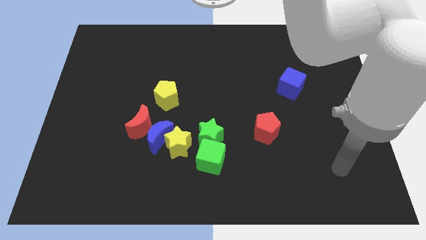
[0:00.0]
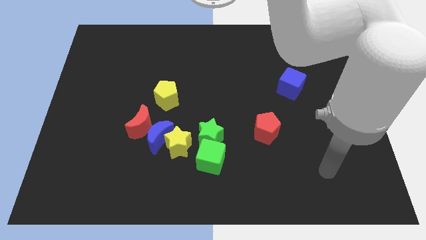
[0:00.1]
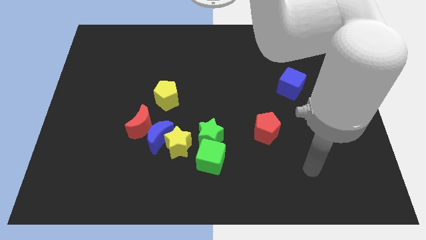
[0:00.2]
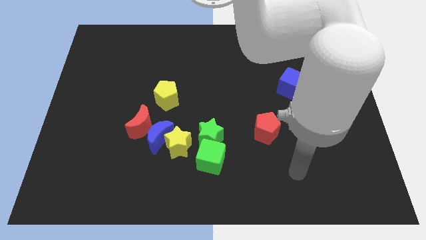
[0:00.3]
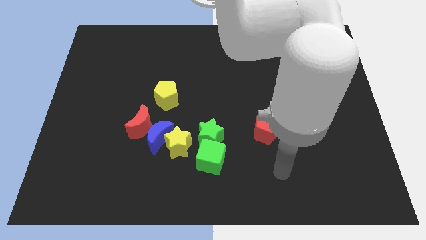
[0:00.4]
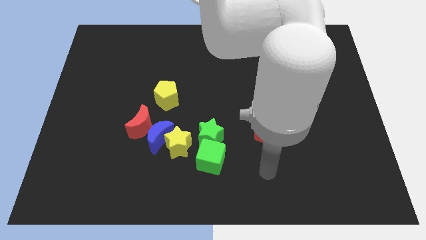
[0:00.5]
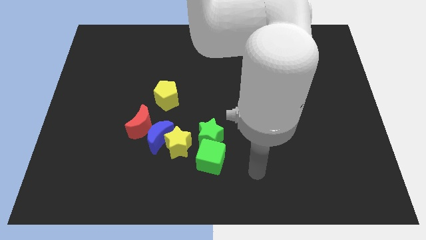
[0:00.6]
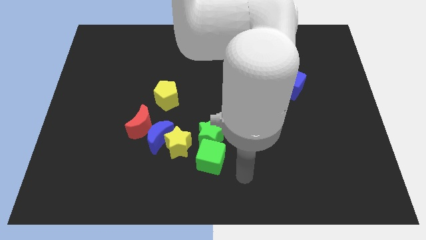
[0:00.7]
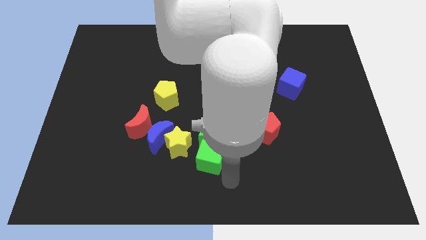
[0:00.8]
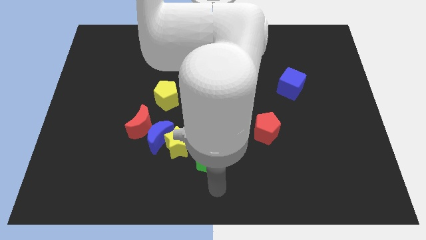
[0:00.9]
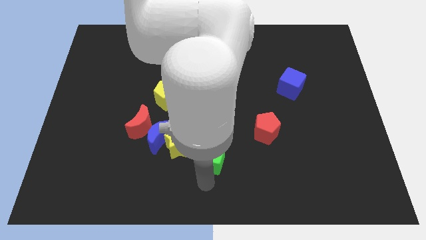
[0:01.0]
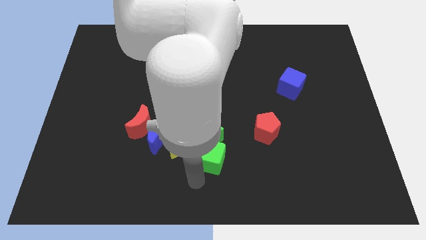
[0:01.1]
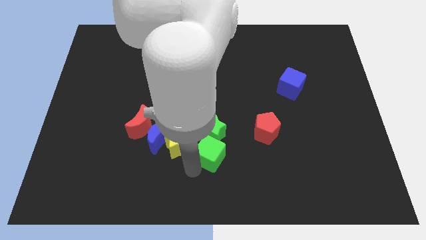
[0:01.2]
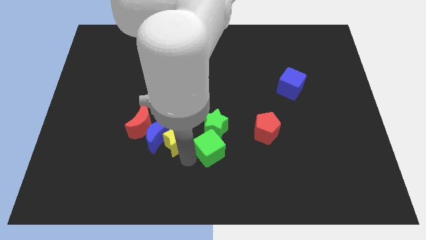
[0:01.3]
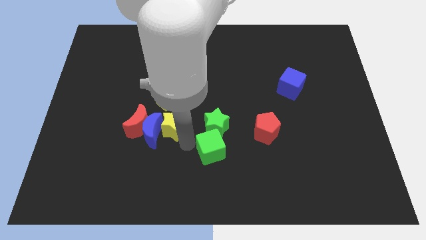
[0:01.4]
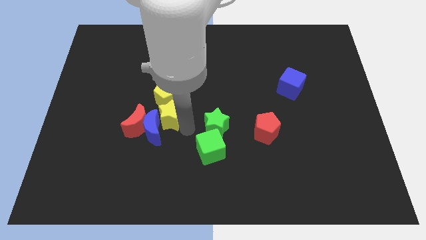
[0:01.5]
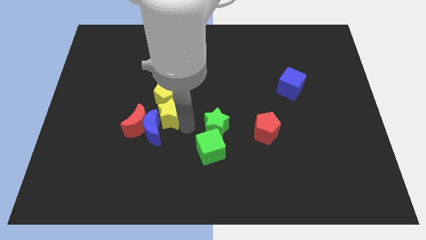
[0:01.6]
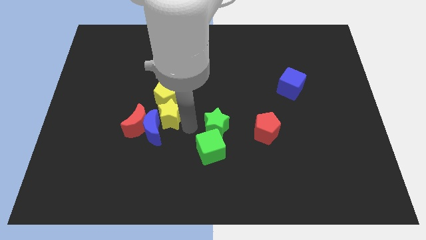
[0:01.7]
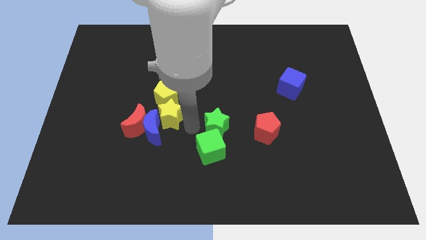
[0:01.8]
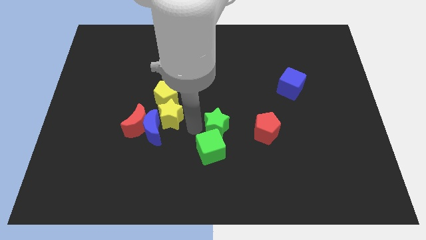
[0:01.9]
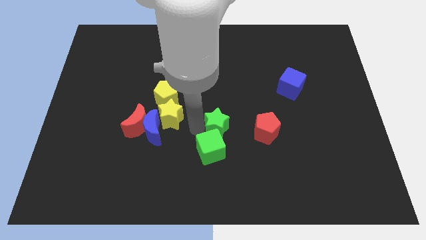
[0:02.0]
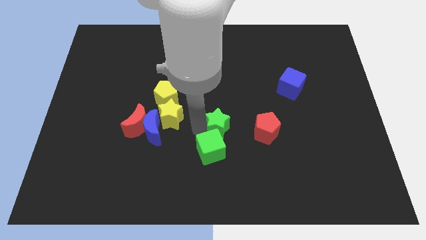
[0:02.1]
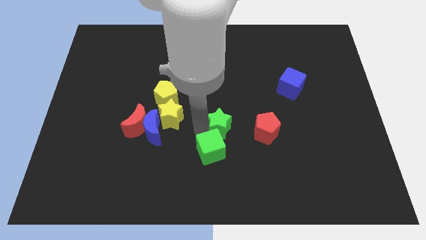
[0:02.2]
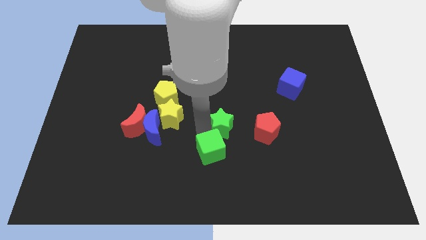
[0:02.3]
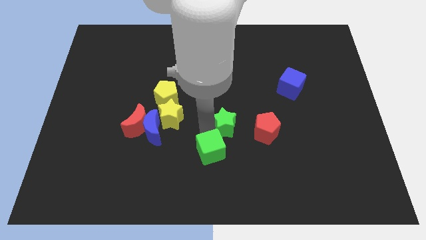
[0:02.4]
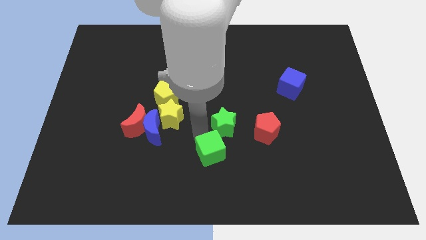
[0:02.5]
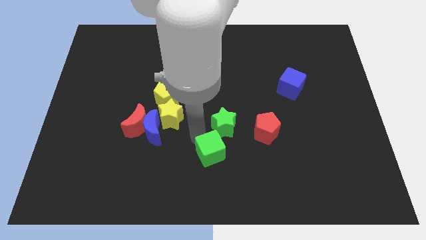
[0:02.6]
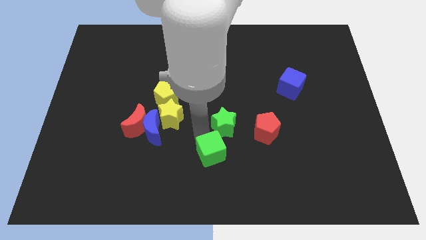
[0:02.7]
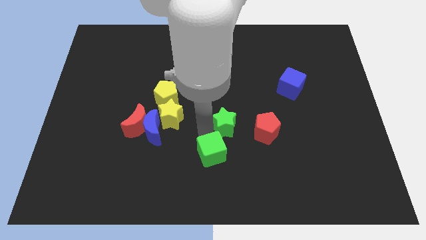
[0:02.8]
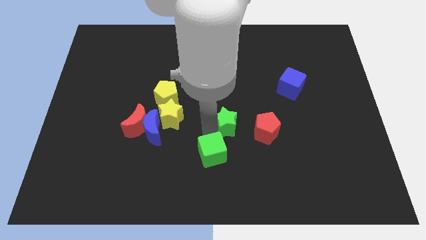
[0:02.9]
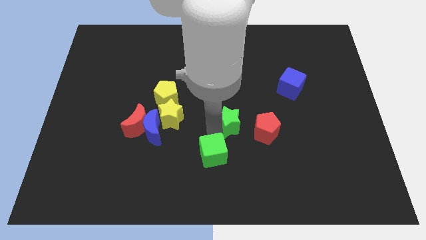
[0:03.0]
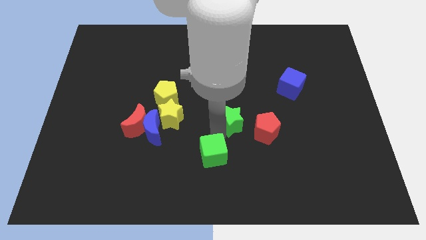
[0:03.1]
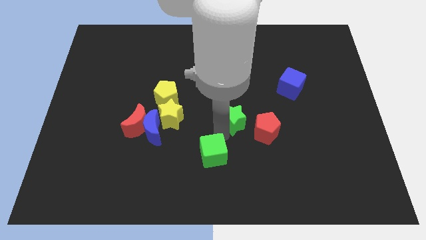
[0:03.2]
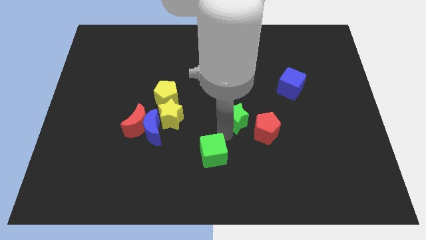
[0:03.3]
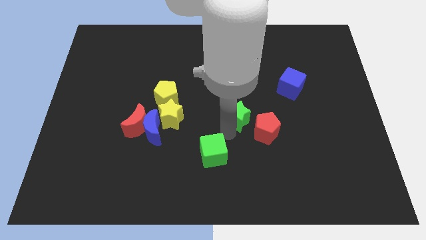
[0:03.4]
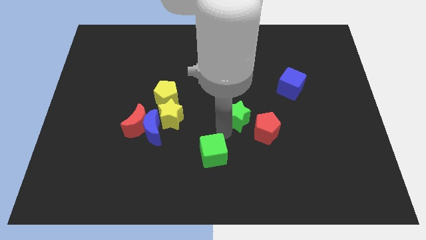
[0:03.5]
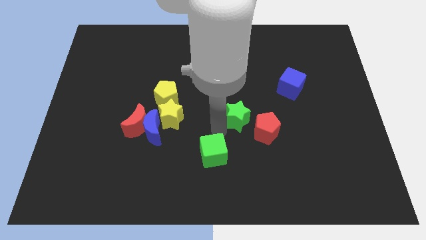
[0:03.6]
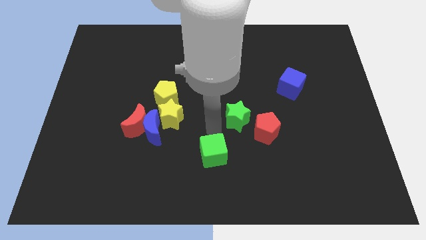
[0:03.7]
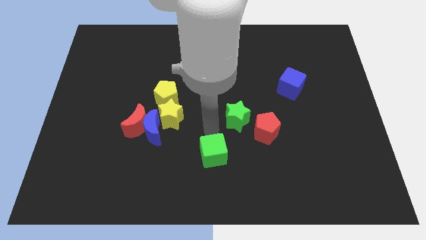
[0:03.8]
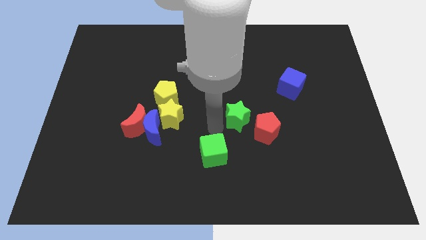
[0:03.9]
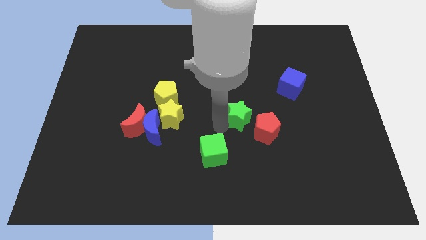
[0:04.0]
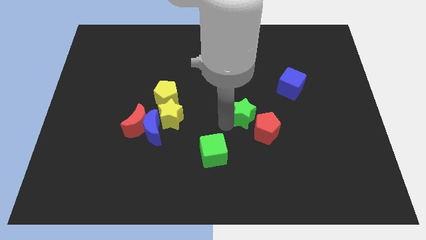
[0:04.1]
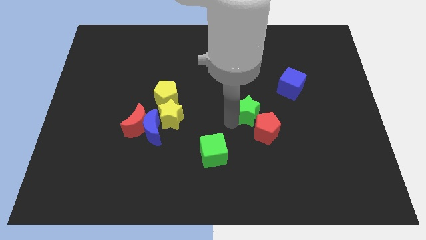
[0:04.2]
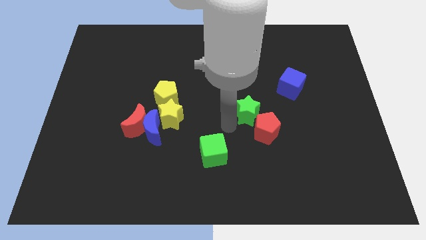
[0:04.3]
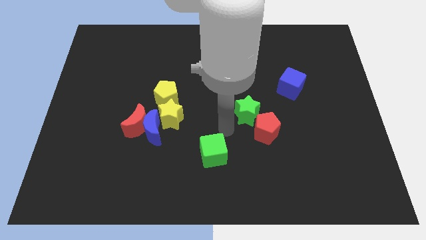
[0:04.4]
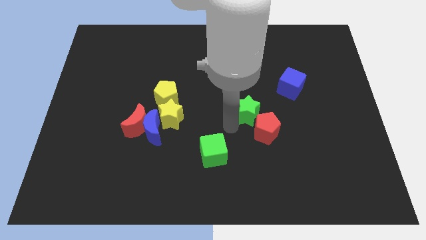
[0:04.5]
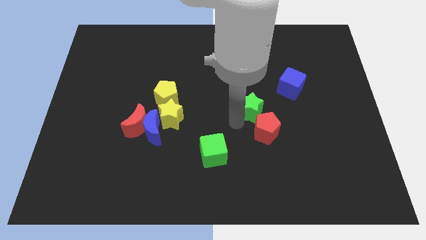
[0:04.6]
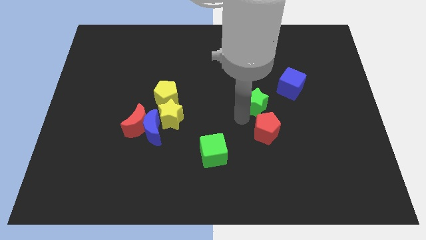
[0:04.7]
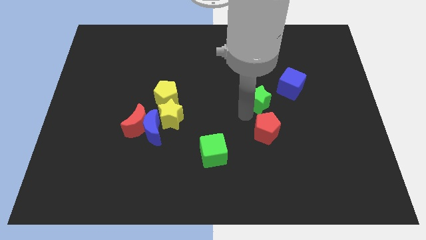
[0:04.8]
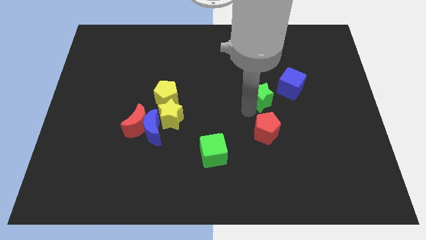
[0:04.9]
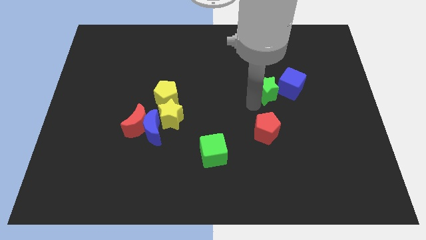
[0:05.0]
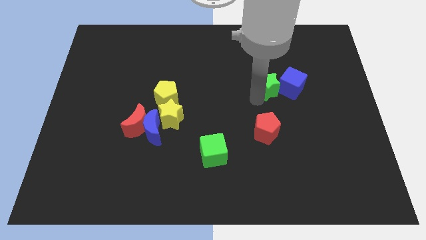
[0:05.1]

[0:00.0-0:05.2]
move the green star towards the blue cube

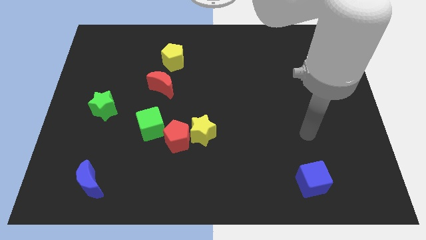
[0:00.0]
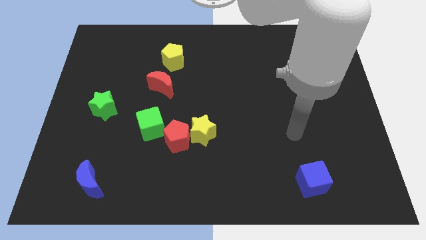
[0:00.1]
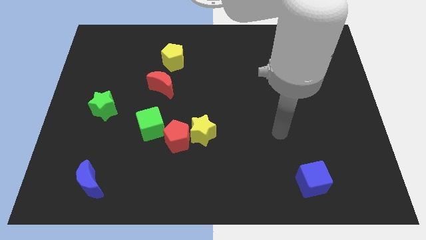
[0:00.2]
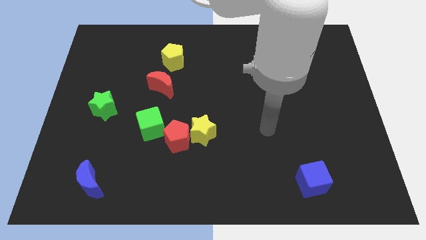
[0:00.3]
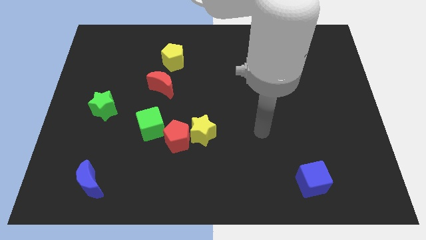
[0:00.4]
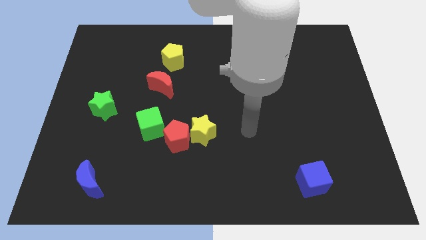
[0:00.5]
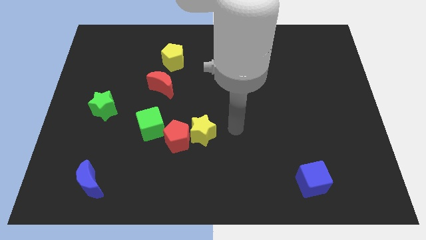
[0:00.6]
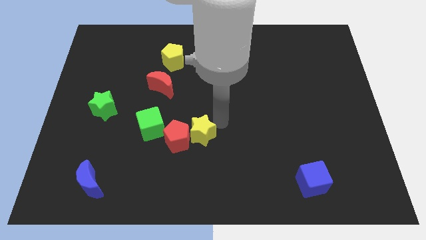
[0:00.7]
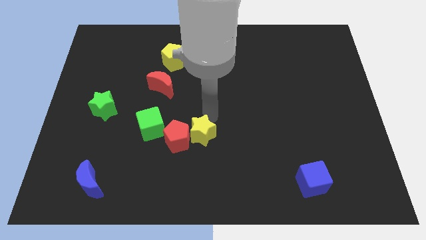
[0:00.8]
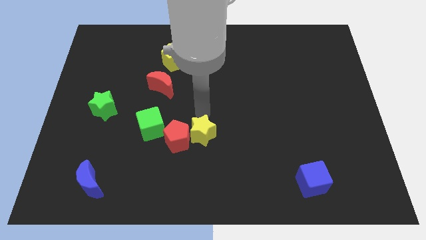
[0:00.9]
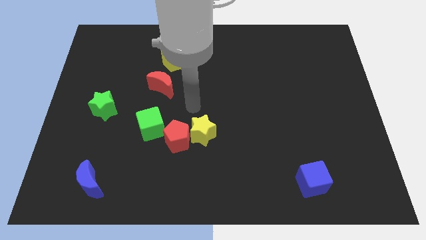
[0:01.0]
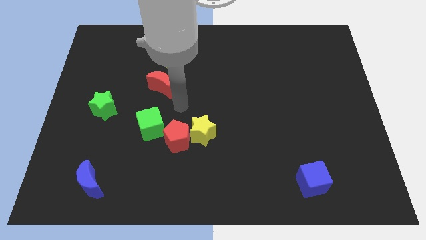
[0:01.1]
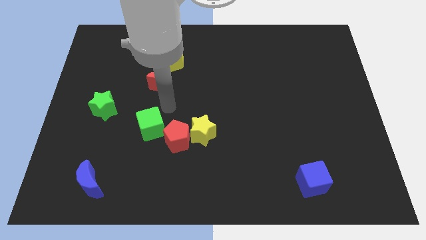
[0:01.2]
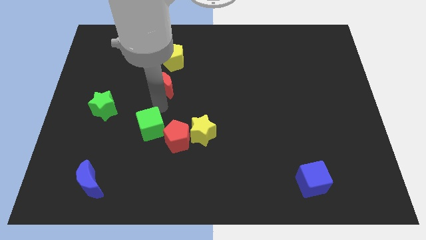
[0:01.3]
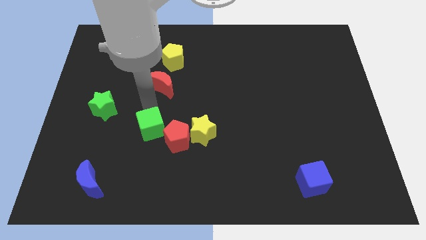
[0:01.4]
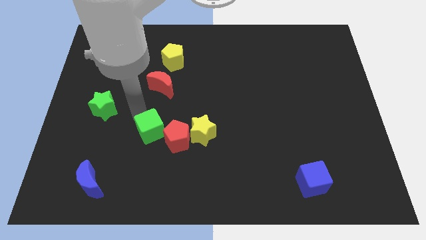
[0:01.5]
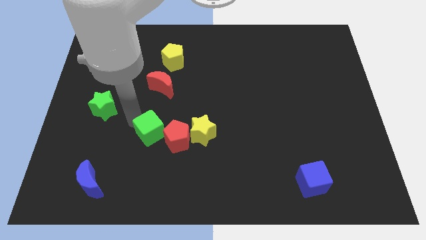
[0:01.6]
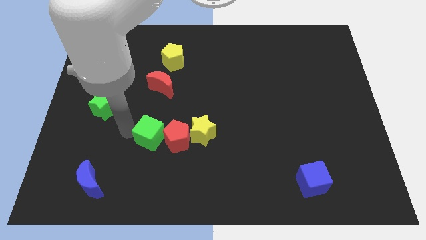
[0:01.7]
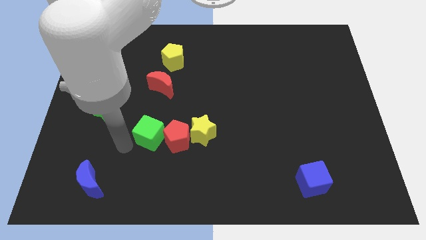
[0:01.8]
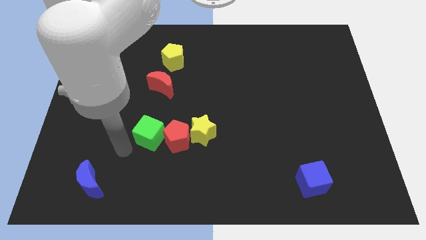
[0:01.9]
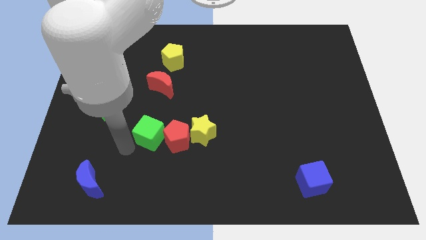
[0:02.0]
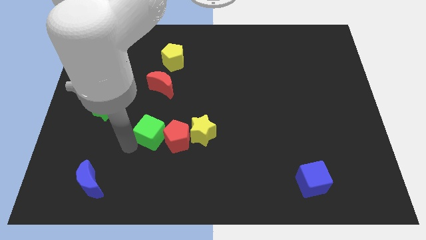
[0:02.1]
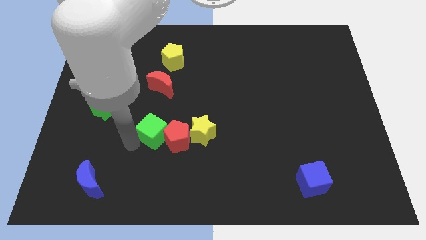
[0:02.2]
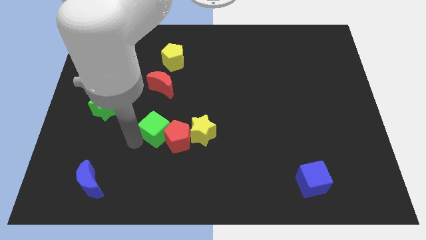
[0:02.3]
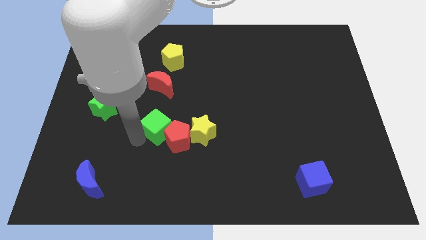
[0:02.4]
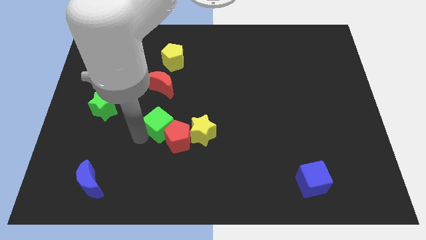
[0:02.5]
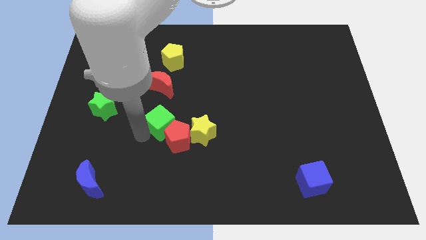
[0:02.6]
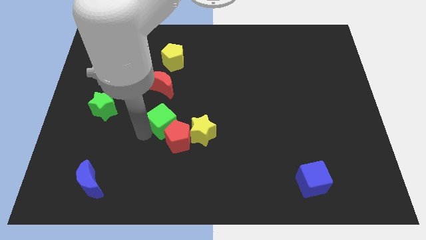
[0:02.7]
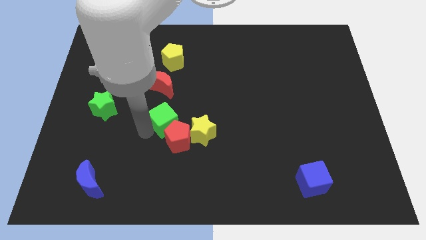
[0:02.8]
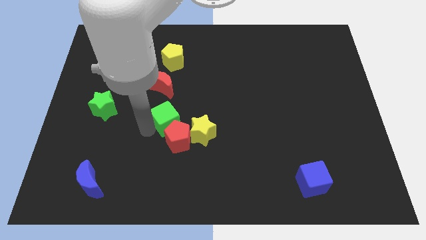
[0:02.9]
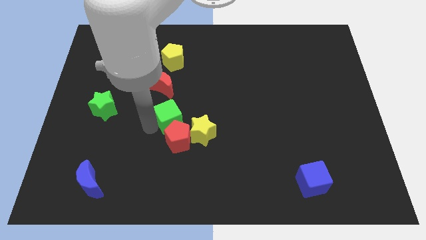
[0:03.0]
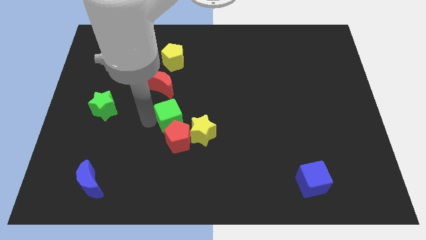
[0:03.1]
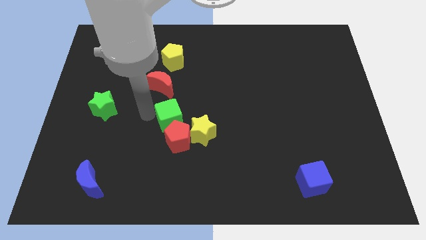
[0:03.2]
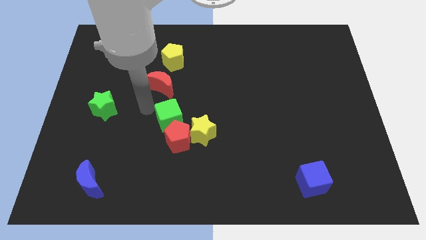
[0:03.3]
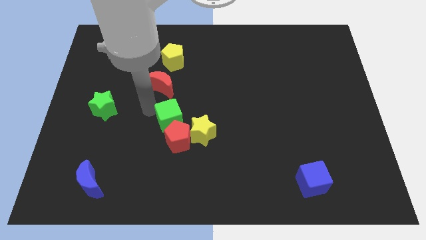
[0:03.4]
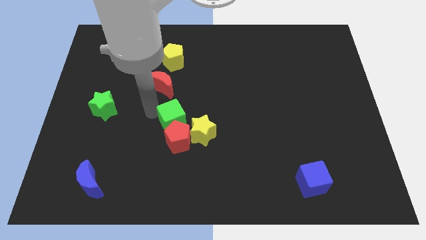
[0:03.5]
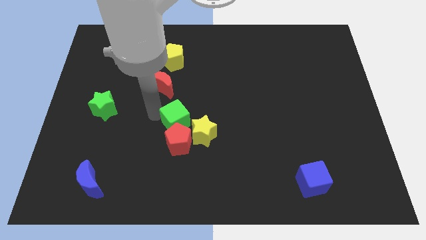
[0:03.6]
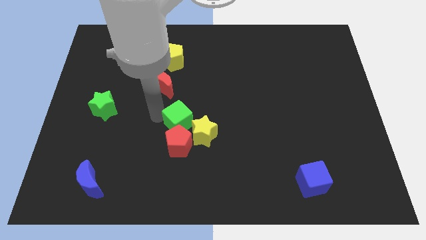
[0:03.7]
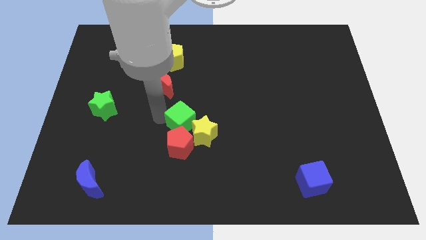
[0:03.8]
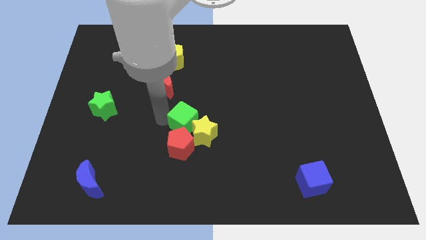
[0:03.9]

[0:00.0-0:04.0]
push the green cube to the yellow star
